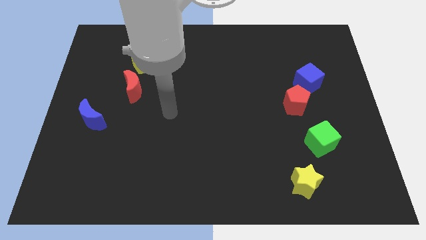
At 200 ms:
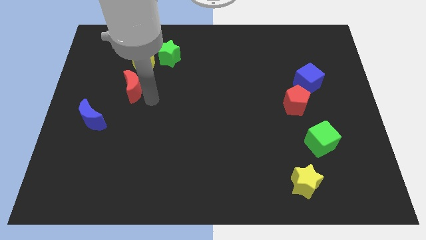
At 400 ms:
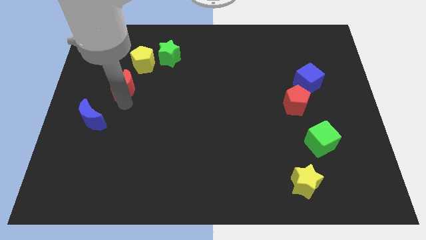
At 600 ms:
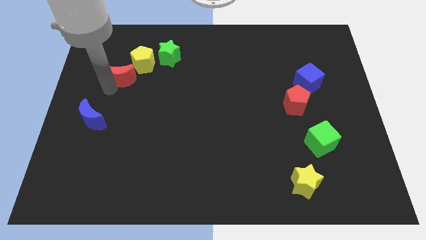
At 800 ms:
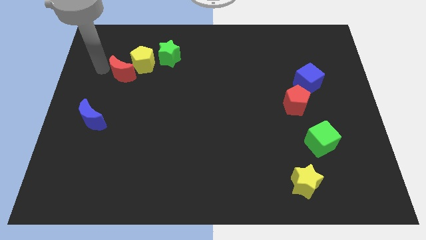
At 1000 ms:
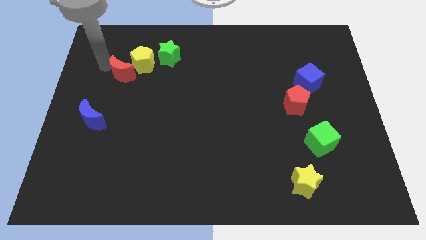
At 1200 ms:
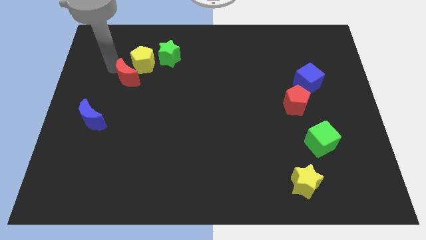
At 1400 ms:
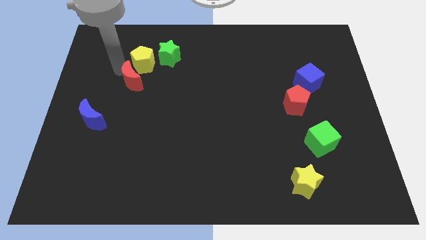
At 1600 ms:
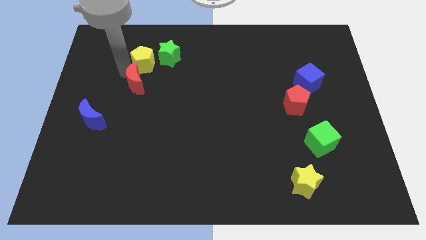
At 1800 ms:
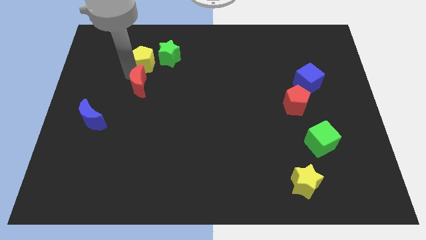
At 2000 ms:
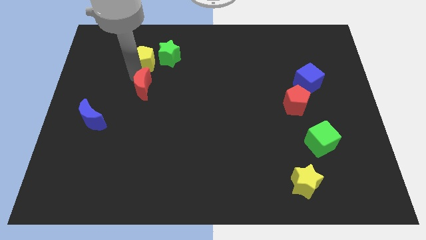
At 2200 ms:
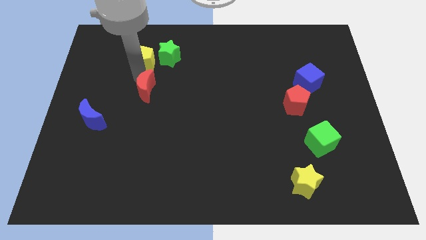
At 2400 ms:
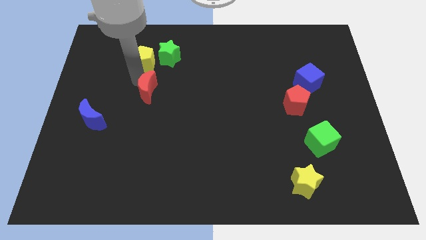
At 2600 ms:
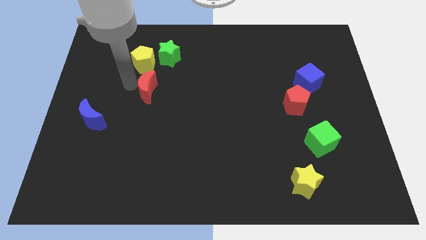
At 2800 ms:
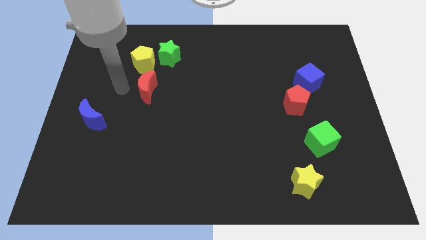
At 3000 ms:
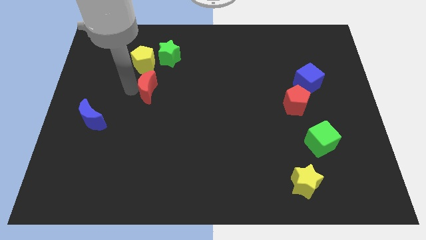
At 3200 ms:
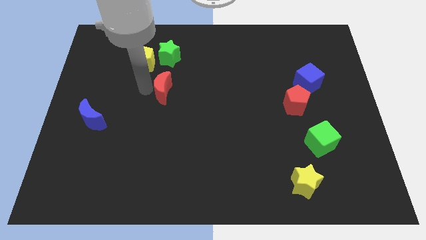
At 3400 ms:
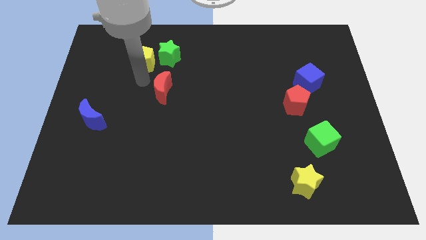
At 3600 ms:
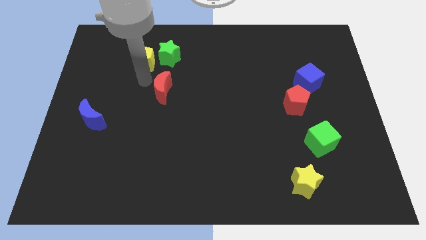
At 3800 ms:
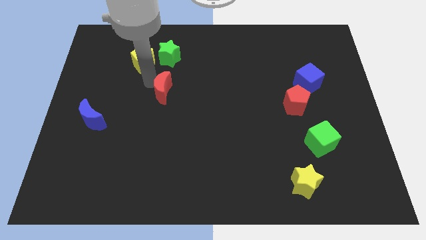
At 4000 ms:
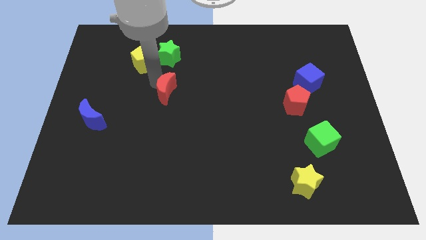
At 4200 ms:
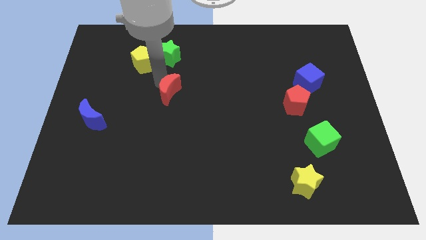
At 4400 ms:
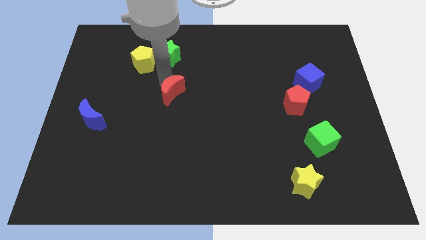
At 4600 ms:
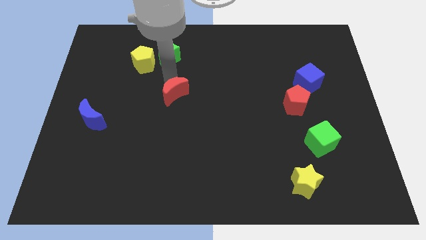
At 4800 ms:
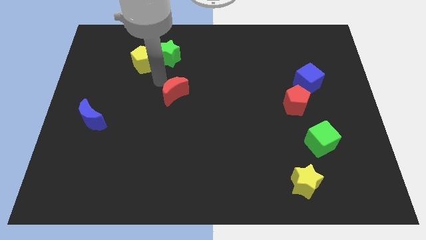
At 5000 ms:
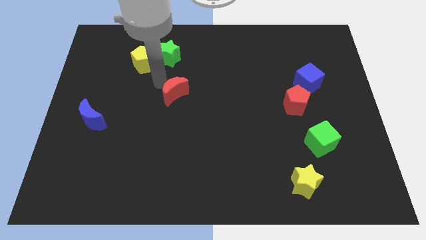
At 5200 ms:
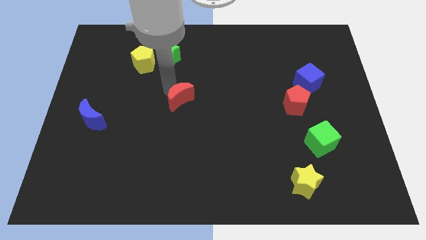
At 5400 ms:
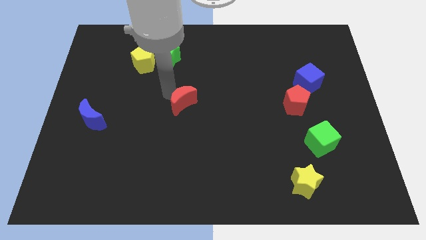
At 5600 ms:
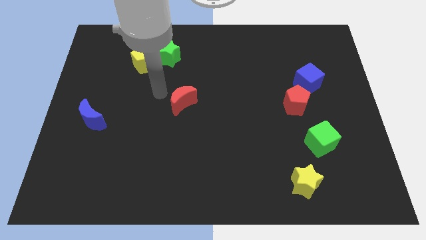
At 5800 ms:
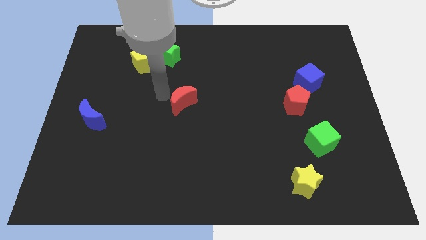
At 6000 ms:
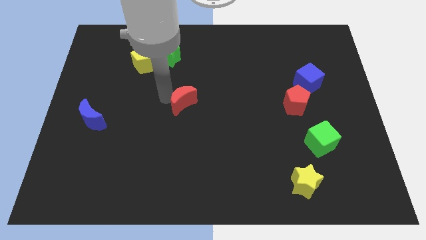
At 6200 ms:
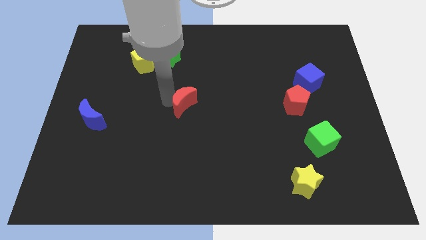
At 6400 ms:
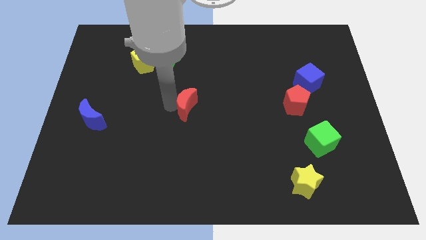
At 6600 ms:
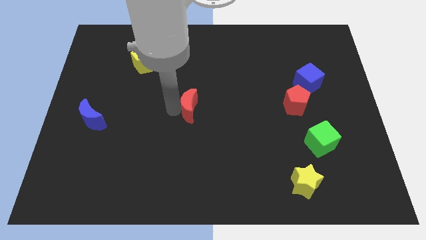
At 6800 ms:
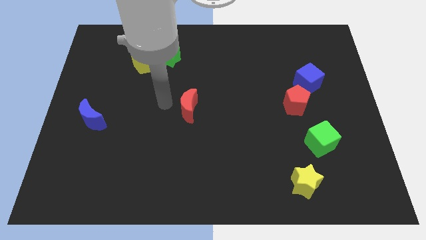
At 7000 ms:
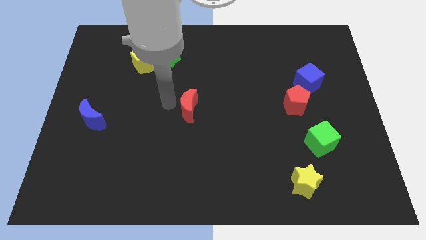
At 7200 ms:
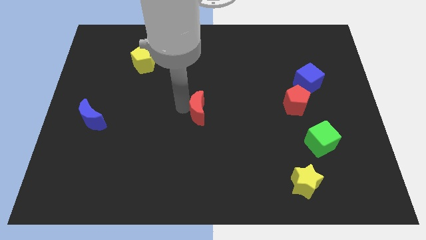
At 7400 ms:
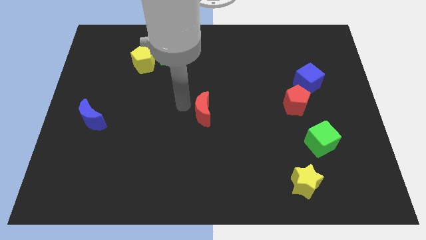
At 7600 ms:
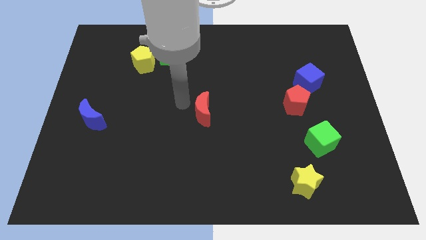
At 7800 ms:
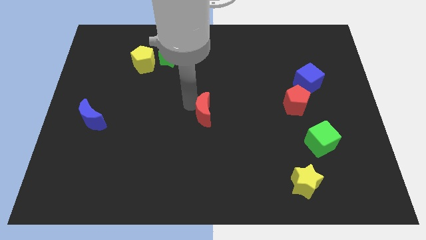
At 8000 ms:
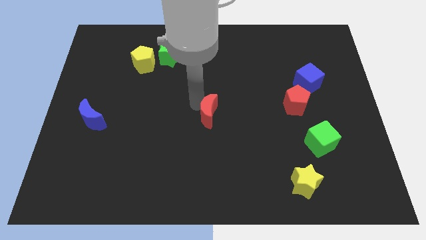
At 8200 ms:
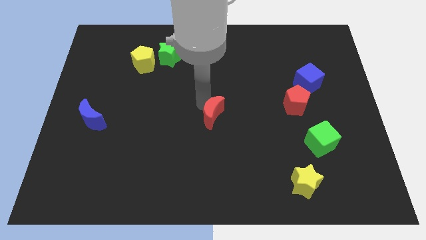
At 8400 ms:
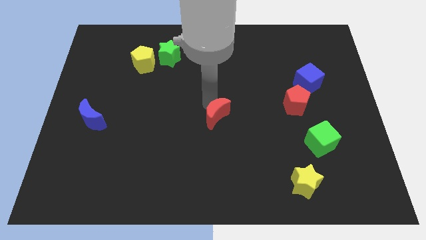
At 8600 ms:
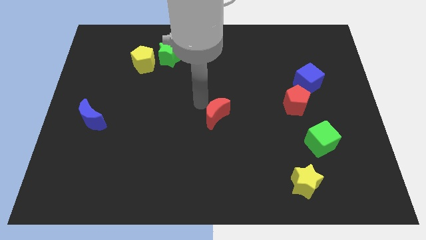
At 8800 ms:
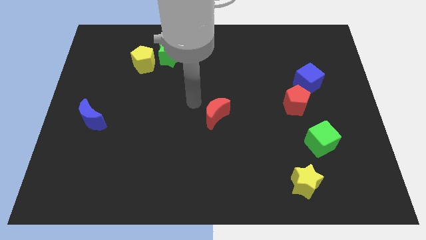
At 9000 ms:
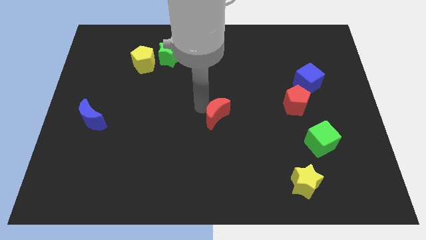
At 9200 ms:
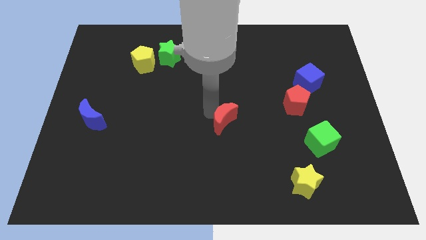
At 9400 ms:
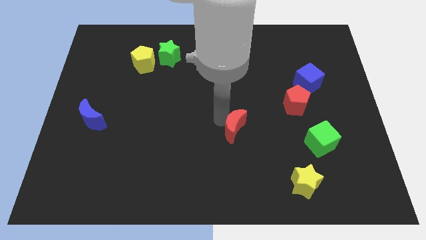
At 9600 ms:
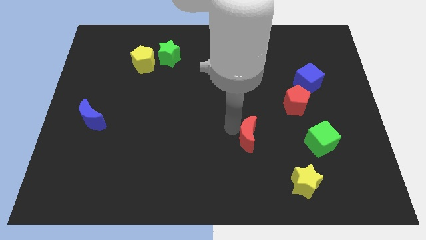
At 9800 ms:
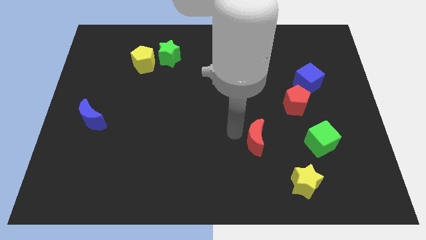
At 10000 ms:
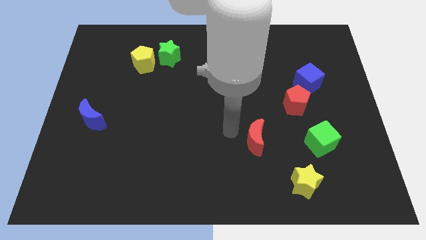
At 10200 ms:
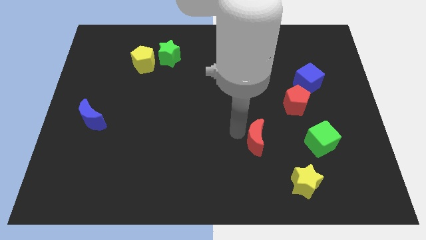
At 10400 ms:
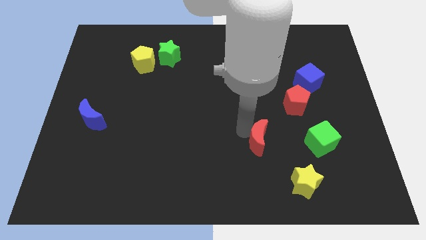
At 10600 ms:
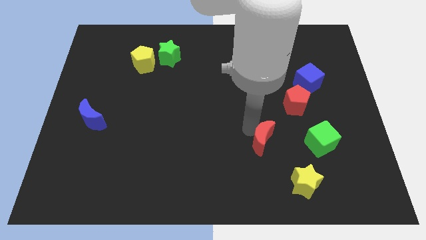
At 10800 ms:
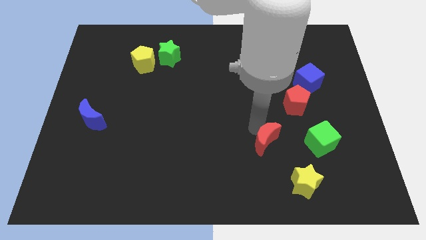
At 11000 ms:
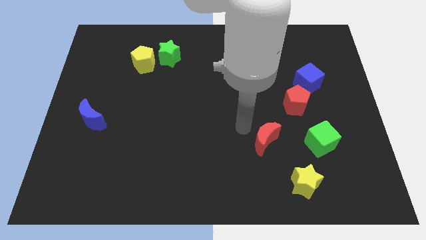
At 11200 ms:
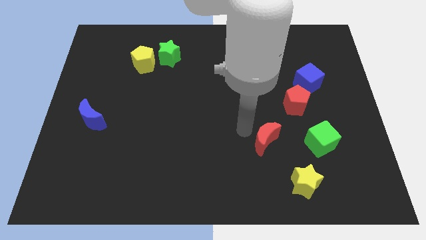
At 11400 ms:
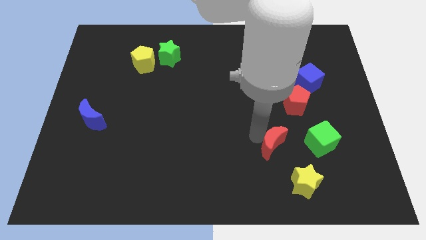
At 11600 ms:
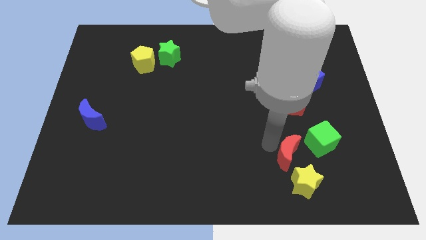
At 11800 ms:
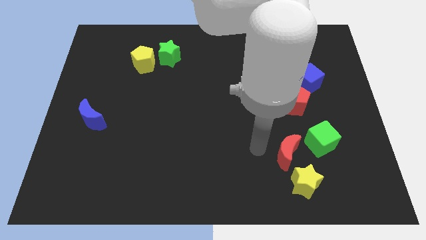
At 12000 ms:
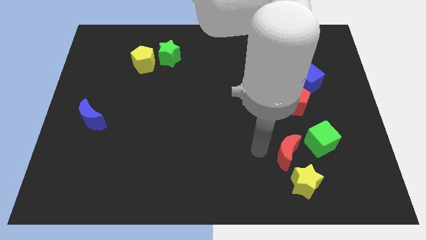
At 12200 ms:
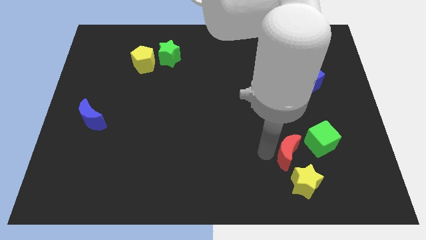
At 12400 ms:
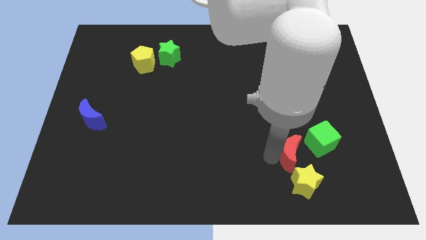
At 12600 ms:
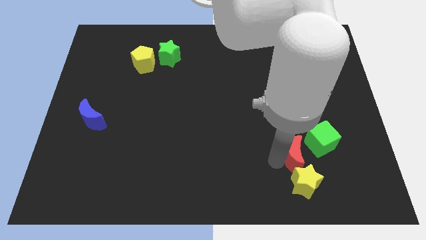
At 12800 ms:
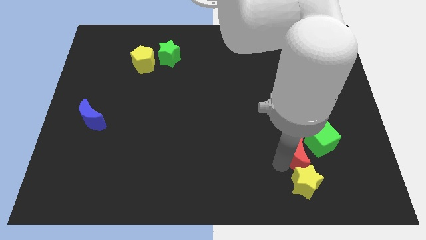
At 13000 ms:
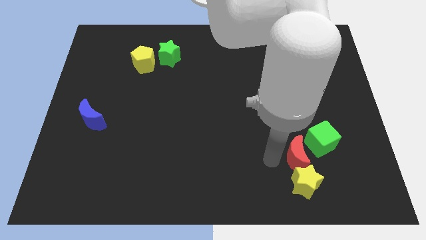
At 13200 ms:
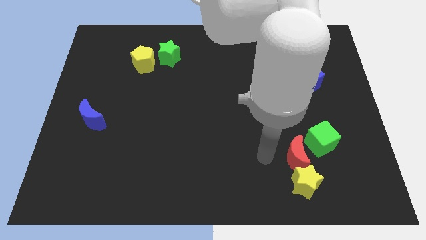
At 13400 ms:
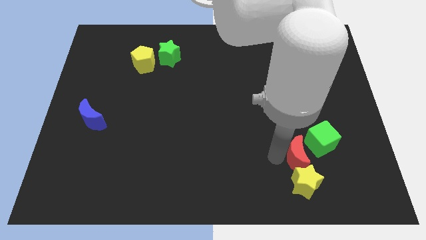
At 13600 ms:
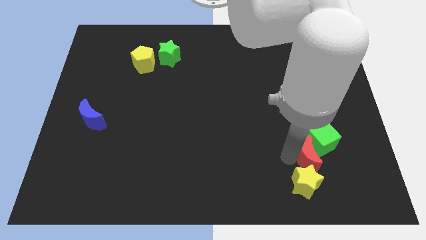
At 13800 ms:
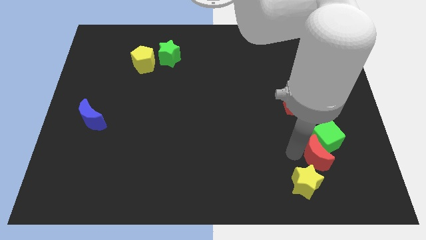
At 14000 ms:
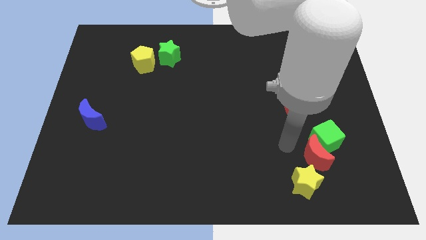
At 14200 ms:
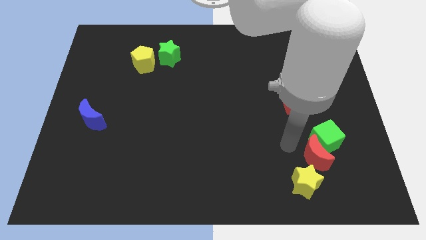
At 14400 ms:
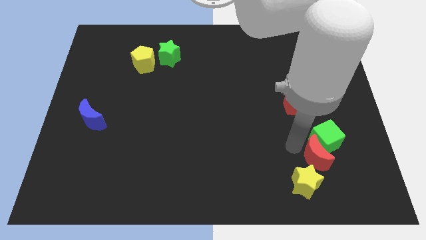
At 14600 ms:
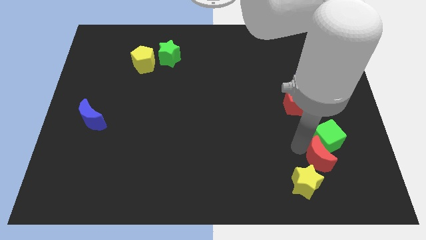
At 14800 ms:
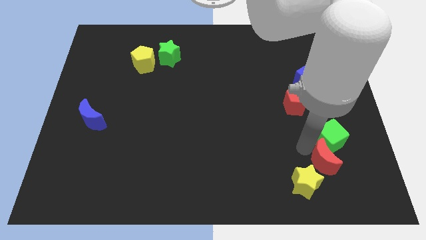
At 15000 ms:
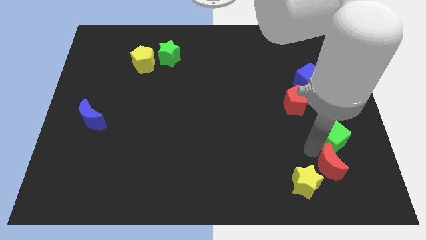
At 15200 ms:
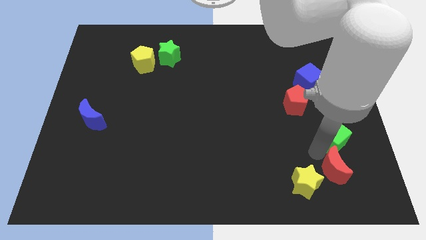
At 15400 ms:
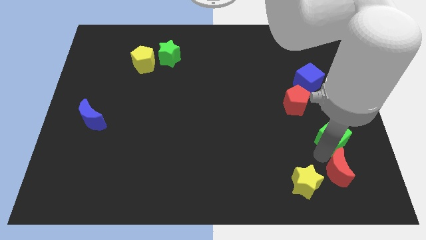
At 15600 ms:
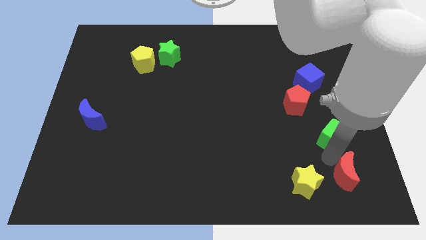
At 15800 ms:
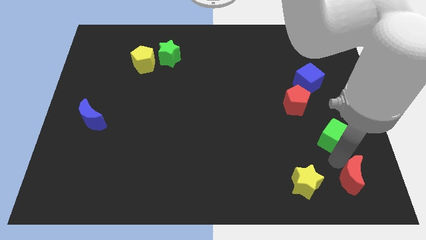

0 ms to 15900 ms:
slide the red moon to the bottom right corner
